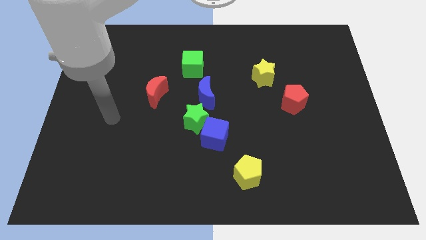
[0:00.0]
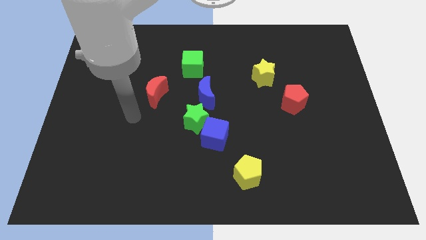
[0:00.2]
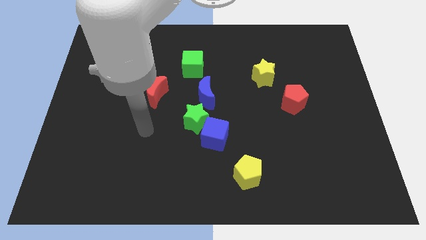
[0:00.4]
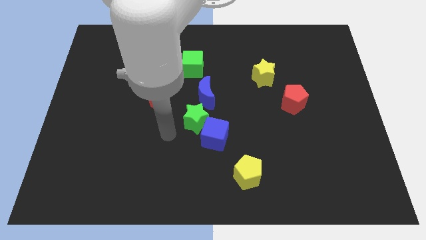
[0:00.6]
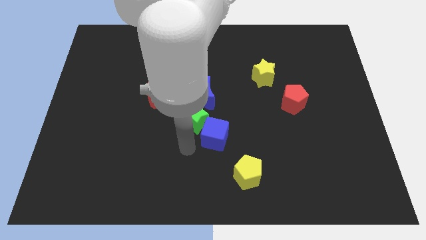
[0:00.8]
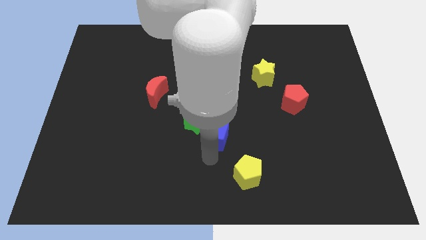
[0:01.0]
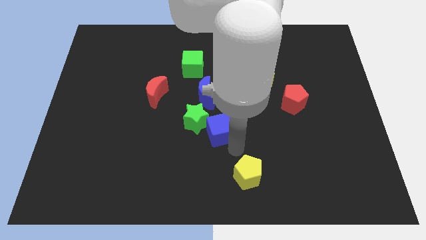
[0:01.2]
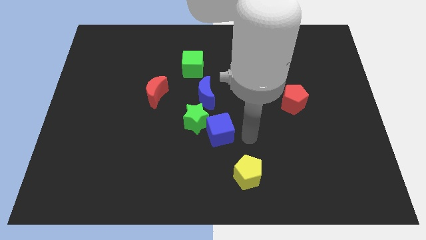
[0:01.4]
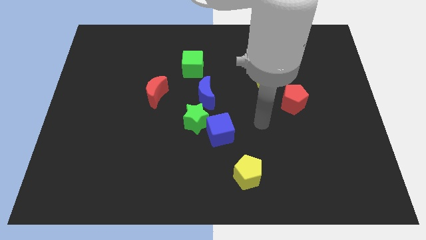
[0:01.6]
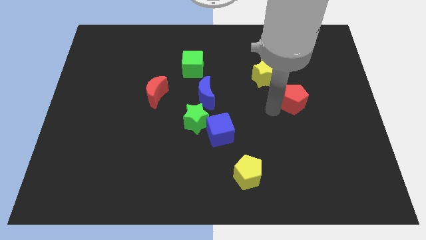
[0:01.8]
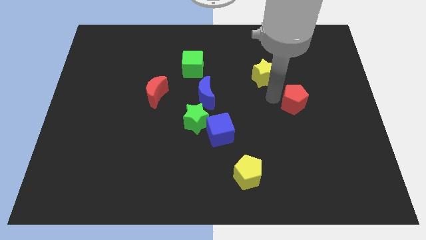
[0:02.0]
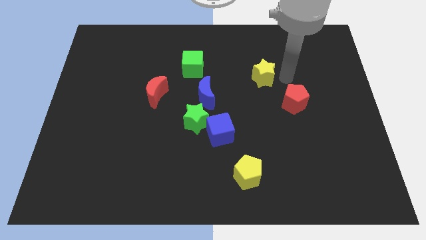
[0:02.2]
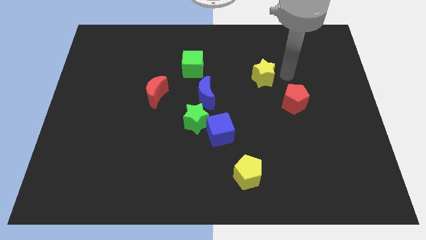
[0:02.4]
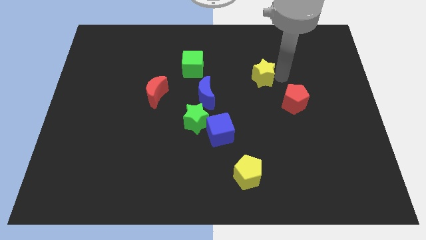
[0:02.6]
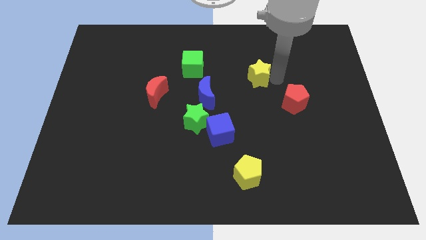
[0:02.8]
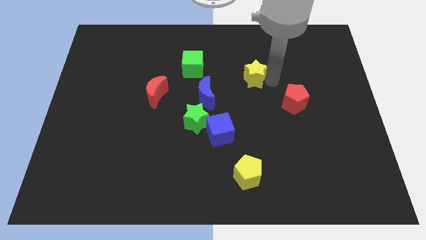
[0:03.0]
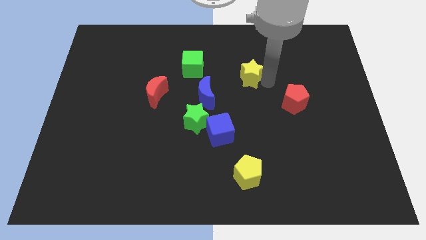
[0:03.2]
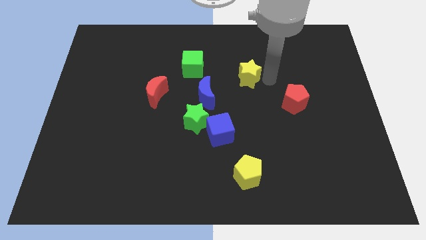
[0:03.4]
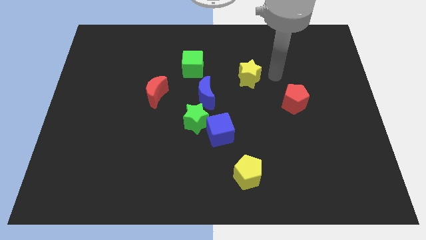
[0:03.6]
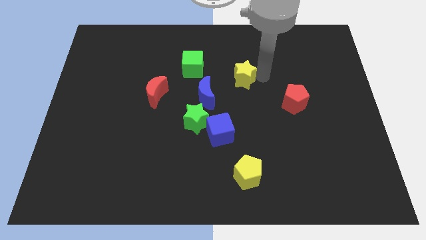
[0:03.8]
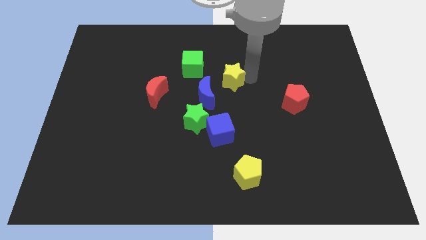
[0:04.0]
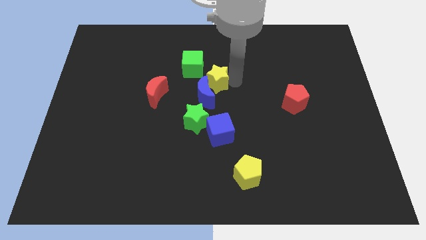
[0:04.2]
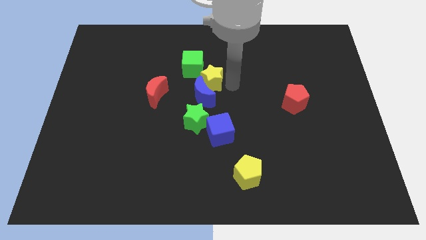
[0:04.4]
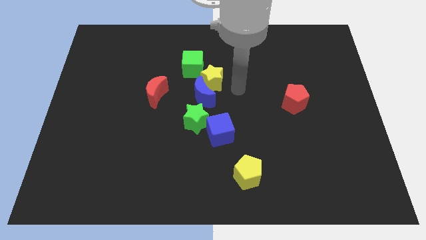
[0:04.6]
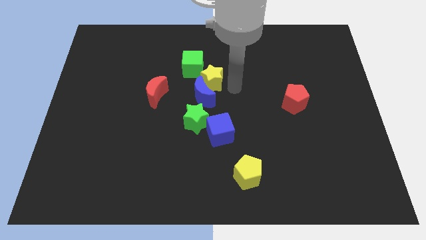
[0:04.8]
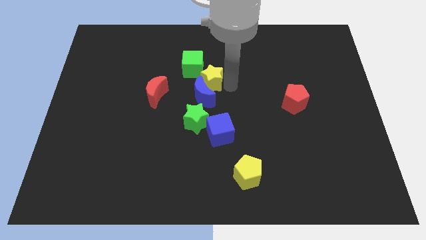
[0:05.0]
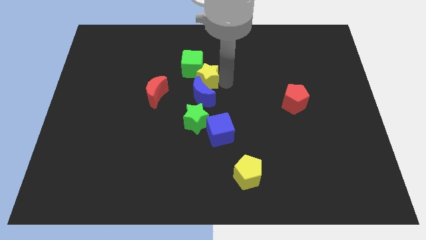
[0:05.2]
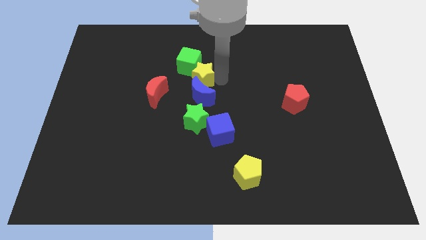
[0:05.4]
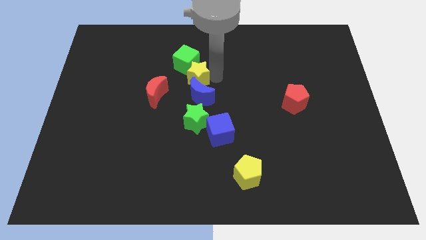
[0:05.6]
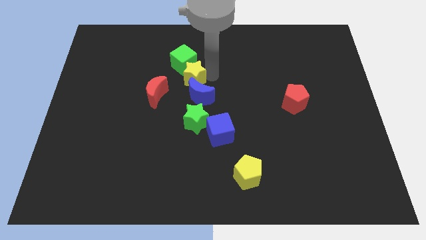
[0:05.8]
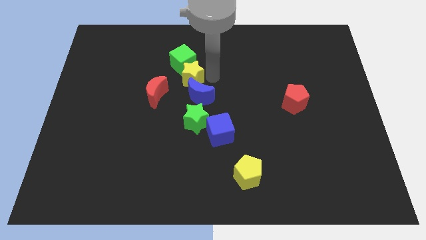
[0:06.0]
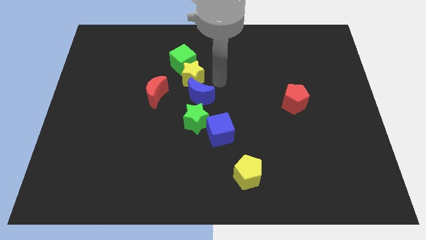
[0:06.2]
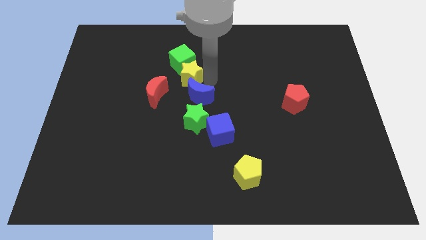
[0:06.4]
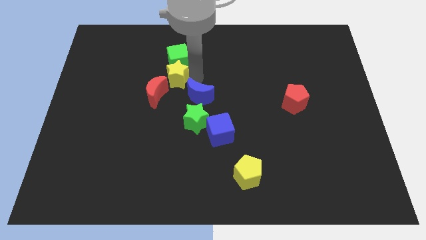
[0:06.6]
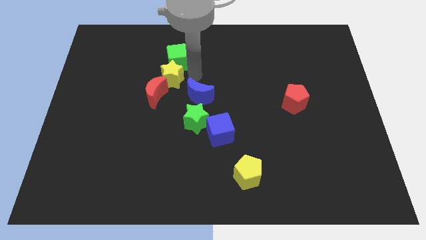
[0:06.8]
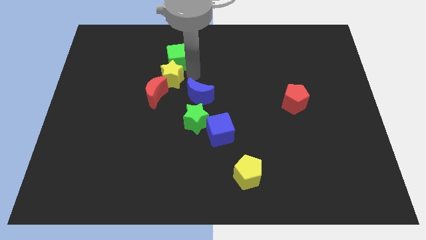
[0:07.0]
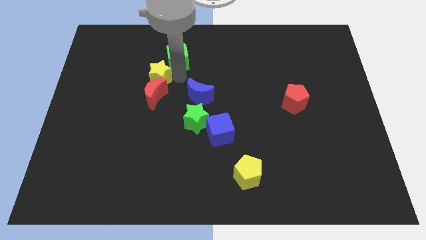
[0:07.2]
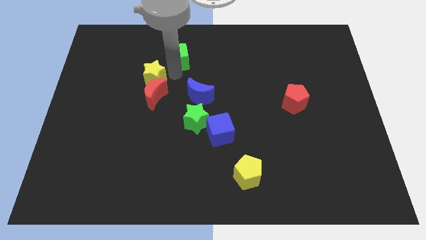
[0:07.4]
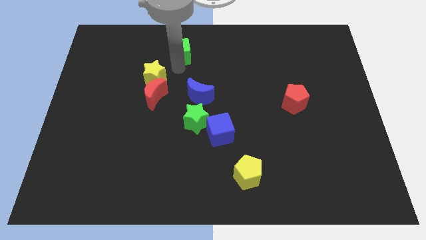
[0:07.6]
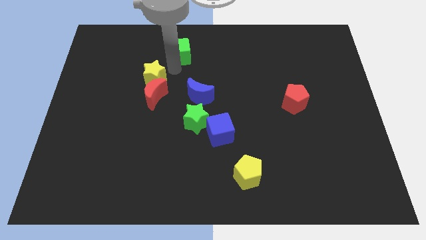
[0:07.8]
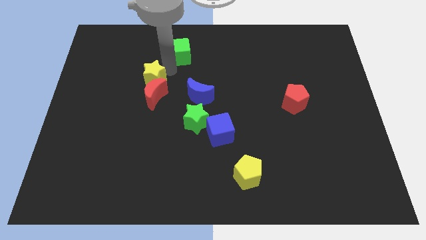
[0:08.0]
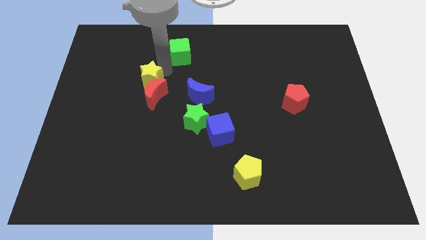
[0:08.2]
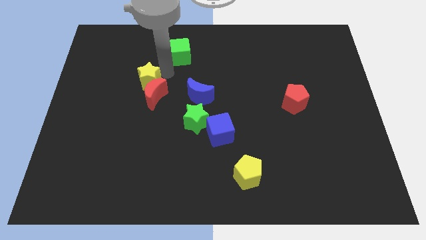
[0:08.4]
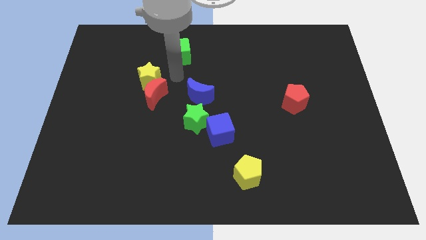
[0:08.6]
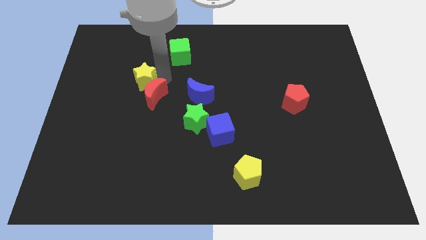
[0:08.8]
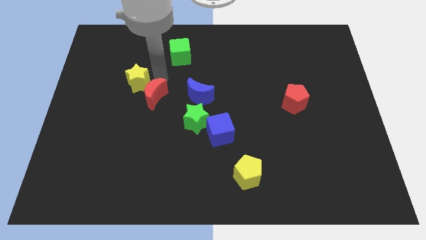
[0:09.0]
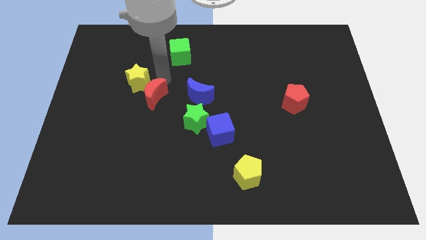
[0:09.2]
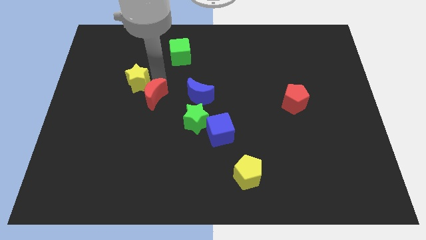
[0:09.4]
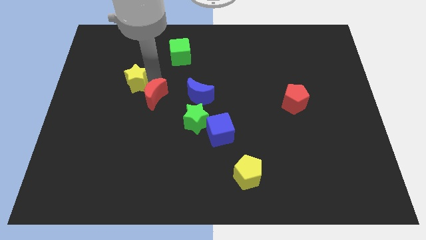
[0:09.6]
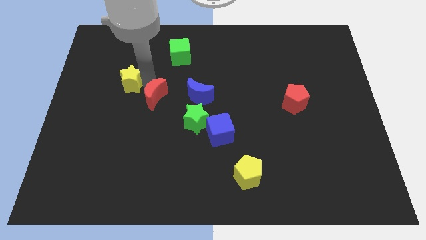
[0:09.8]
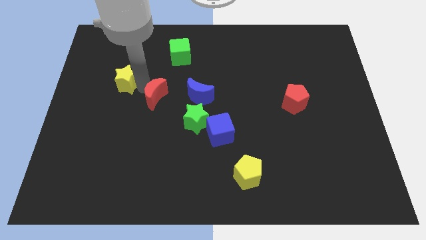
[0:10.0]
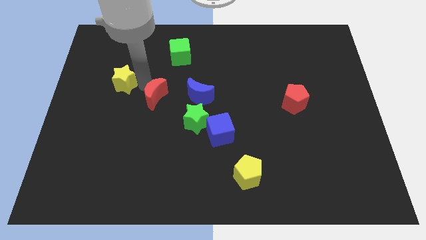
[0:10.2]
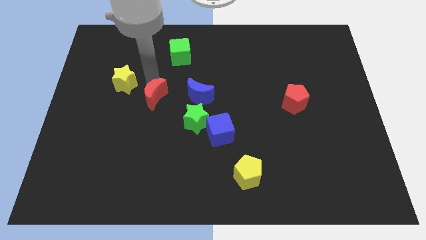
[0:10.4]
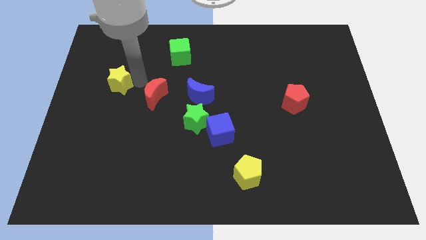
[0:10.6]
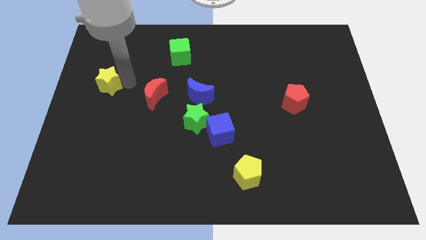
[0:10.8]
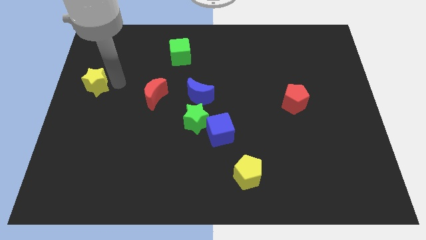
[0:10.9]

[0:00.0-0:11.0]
push the yellow star to the left side of the board

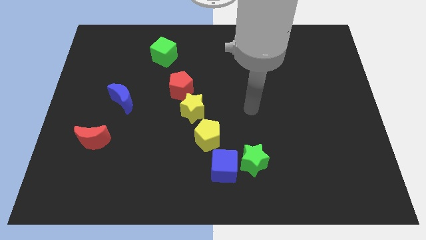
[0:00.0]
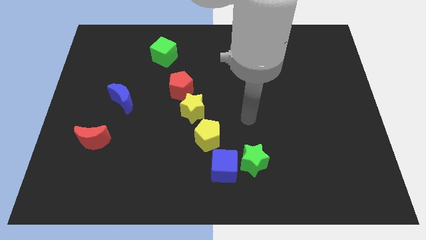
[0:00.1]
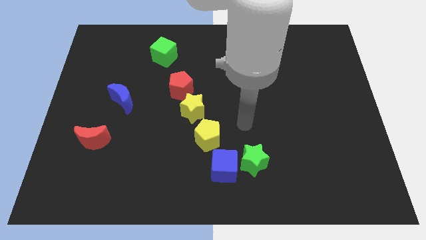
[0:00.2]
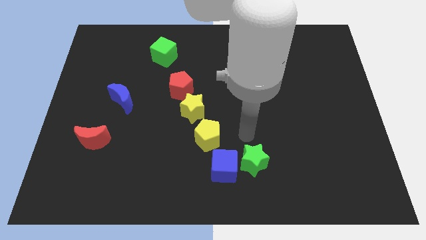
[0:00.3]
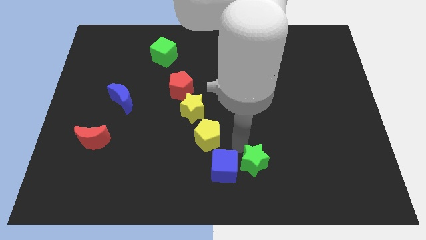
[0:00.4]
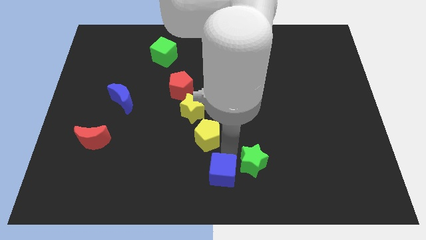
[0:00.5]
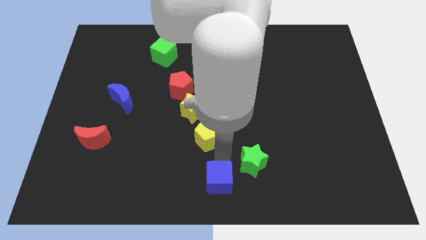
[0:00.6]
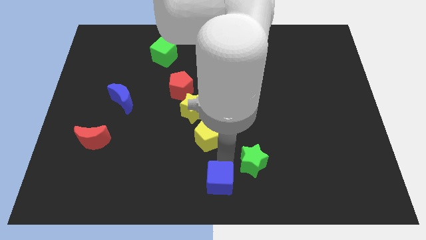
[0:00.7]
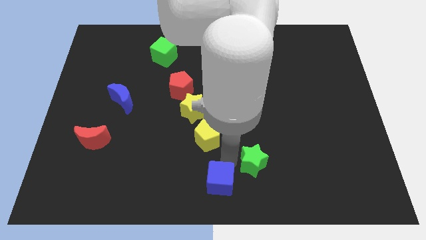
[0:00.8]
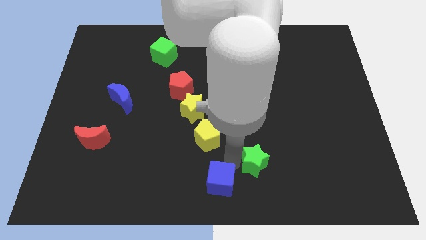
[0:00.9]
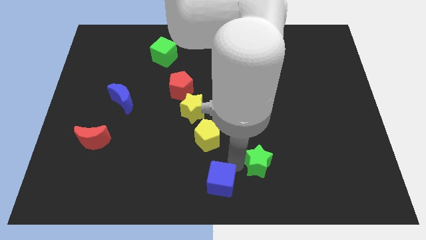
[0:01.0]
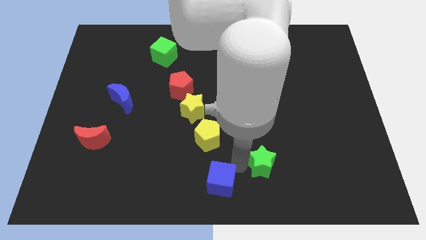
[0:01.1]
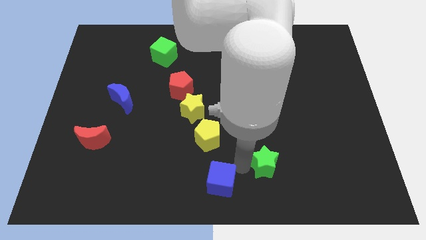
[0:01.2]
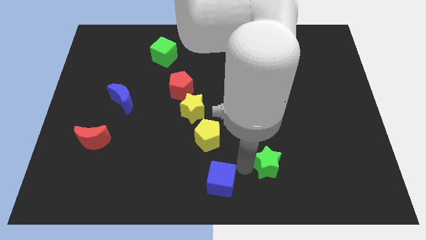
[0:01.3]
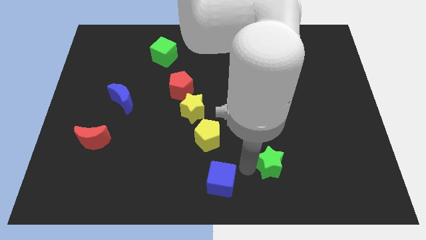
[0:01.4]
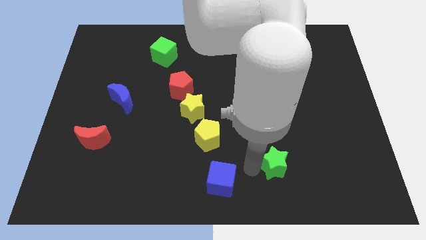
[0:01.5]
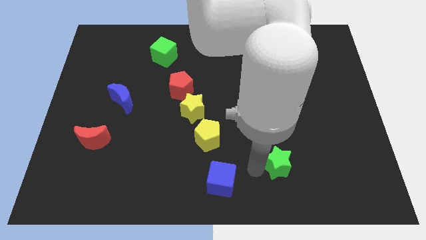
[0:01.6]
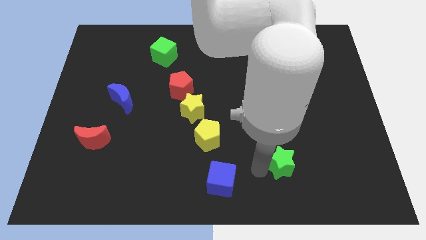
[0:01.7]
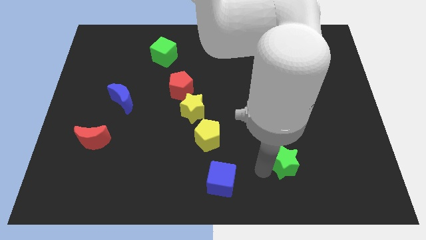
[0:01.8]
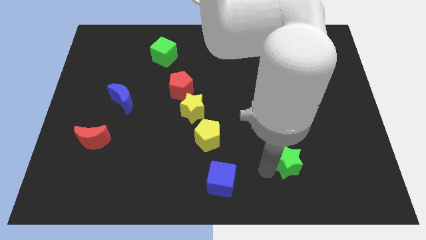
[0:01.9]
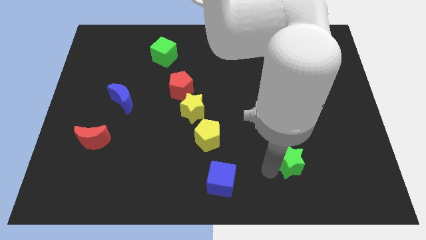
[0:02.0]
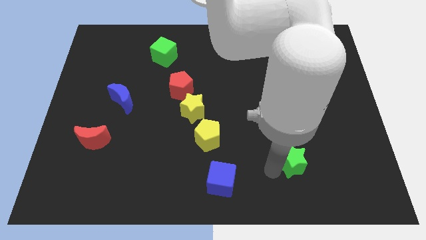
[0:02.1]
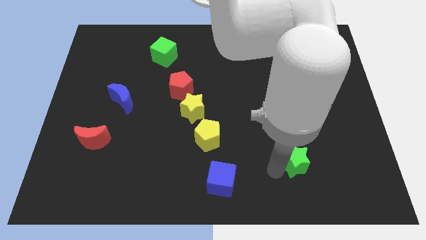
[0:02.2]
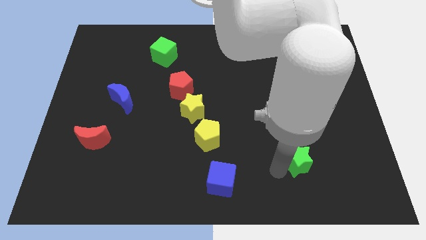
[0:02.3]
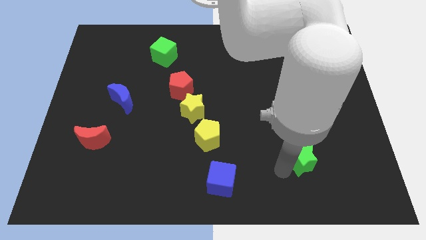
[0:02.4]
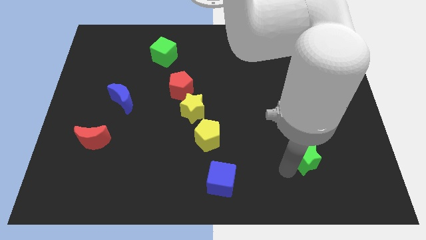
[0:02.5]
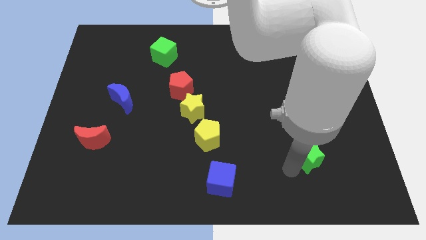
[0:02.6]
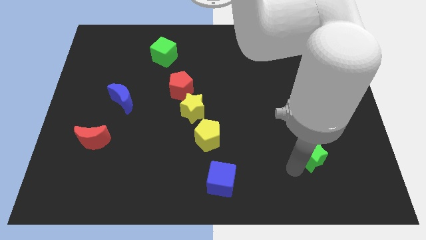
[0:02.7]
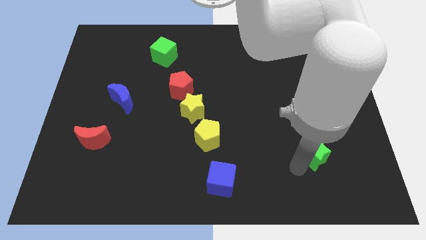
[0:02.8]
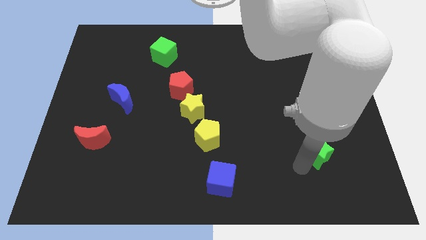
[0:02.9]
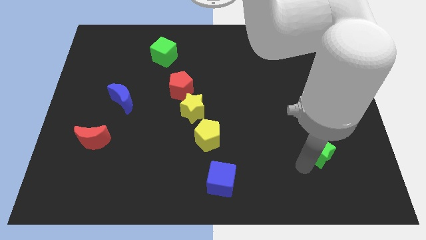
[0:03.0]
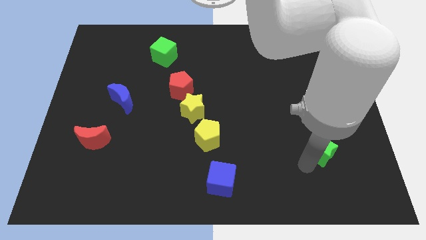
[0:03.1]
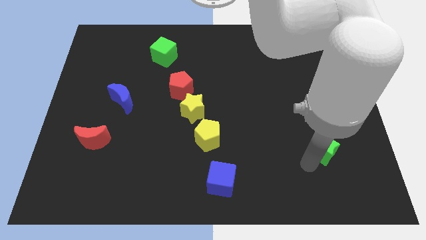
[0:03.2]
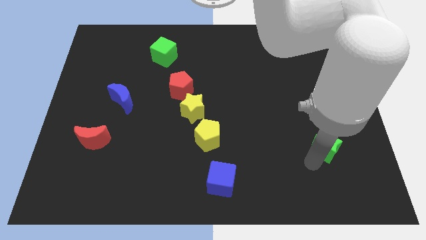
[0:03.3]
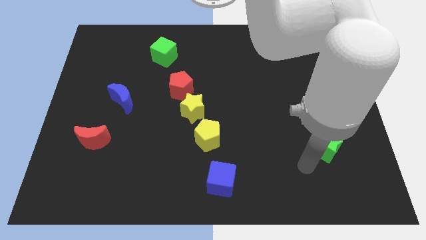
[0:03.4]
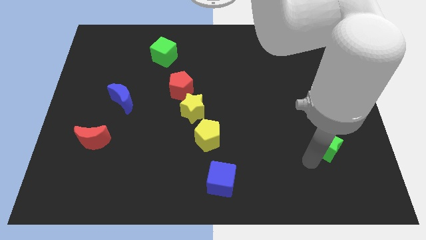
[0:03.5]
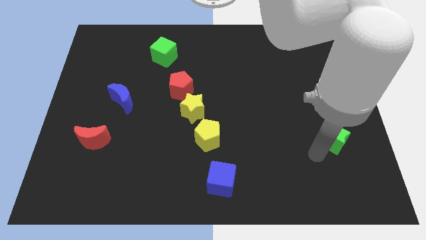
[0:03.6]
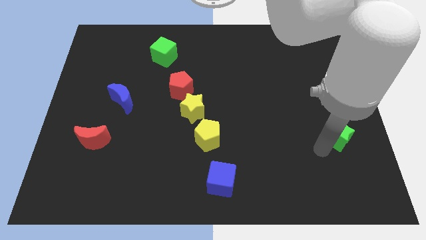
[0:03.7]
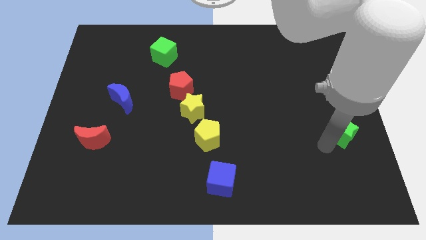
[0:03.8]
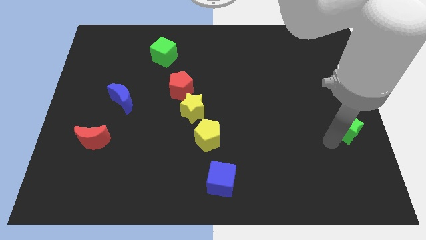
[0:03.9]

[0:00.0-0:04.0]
slide the green star to the center right
